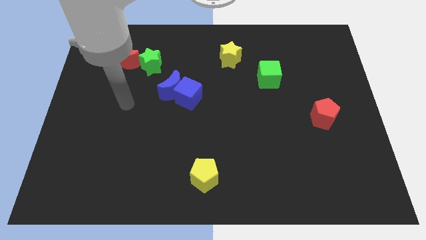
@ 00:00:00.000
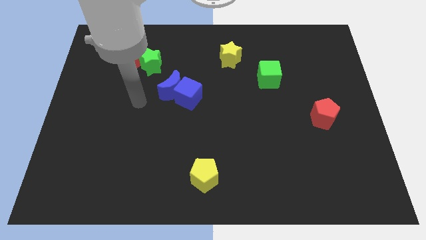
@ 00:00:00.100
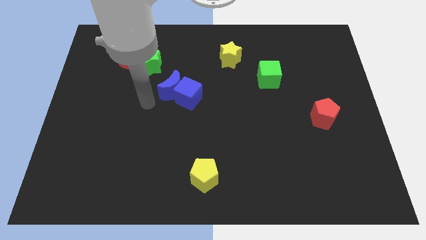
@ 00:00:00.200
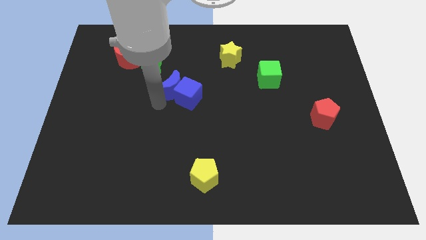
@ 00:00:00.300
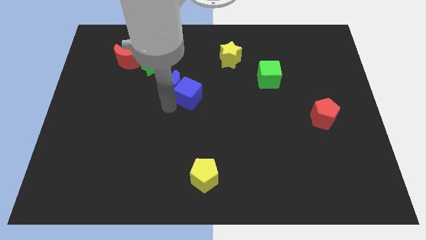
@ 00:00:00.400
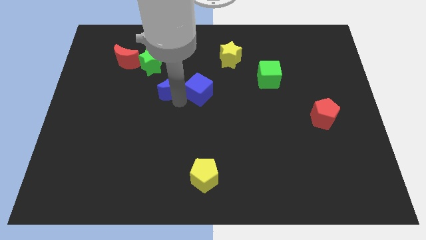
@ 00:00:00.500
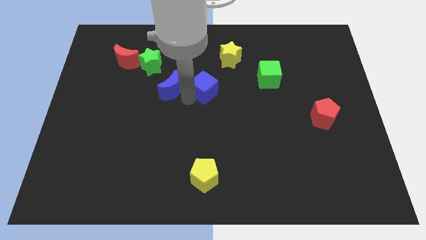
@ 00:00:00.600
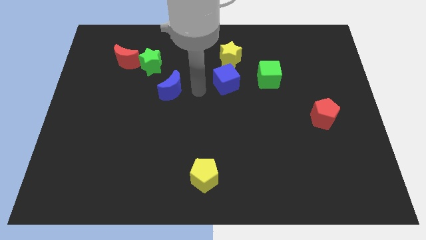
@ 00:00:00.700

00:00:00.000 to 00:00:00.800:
move the blue moon away from the blue cube

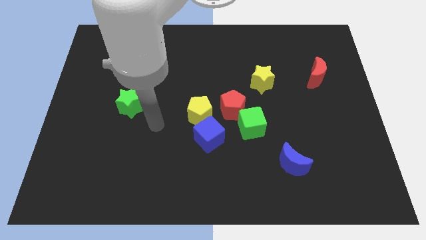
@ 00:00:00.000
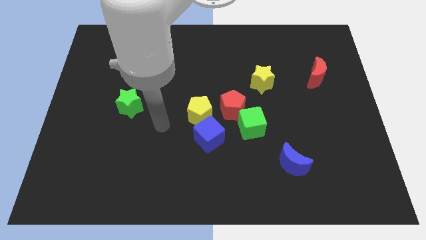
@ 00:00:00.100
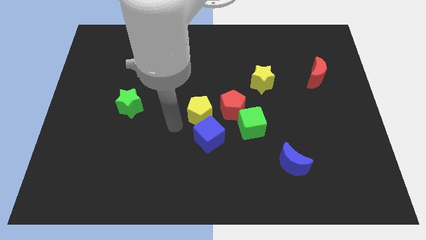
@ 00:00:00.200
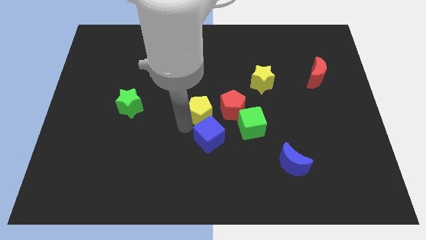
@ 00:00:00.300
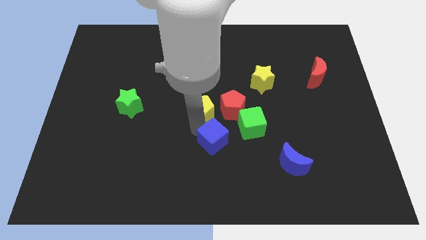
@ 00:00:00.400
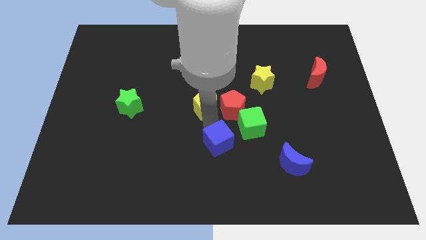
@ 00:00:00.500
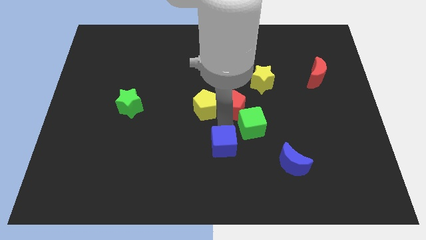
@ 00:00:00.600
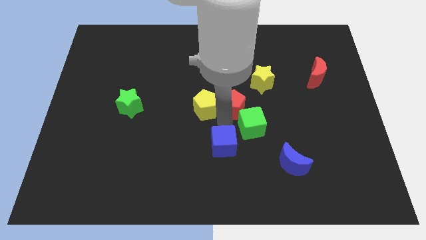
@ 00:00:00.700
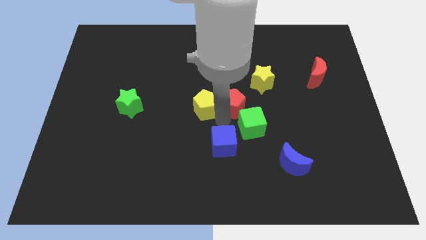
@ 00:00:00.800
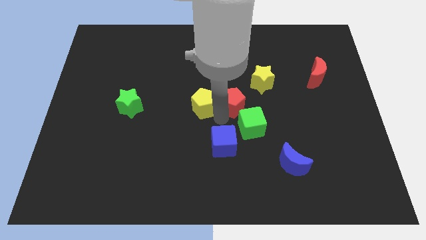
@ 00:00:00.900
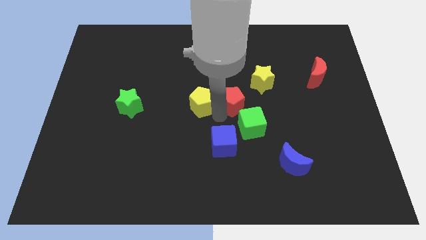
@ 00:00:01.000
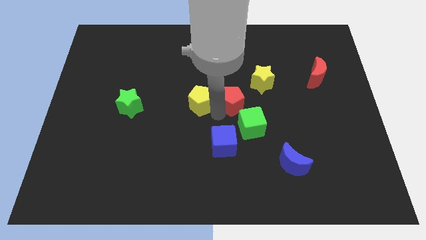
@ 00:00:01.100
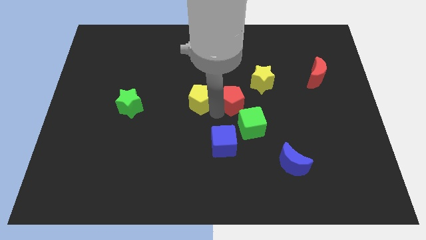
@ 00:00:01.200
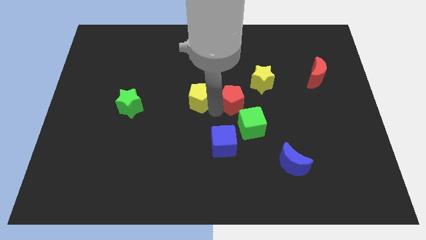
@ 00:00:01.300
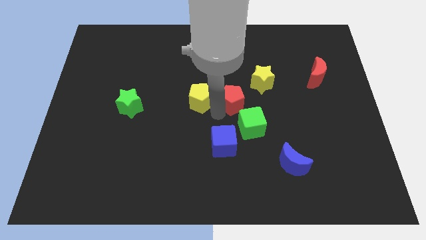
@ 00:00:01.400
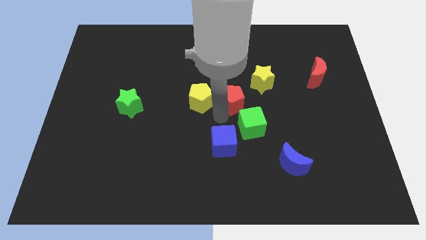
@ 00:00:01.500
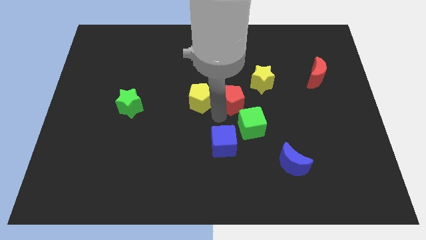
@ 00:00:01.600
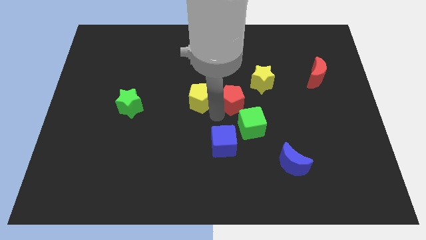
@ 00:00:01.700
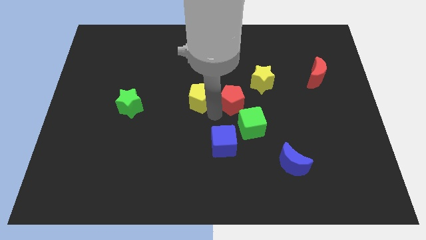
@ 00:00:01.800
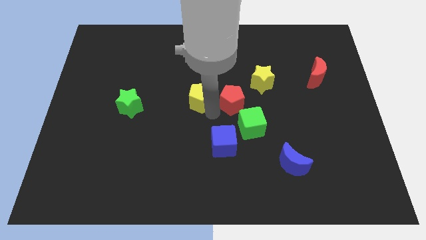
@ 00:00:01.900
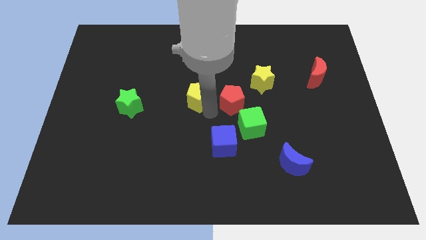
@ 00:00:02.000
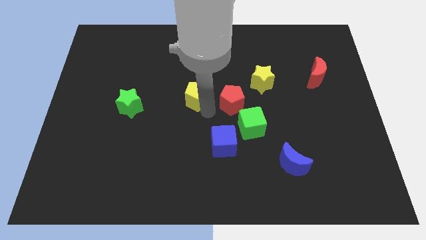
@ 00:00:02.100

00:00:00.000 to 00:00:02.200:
move the yellow pentagon away from the blue cube and red pentagon

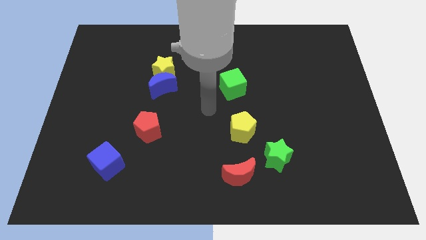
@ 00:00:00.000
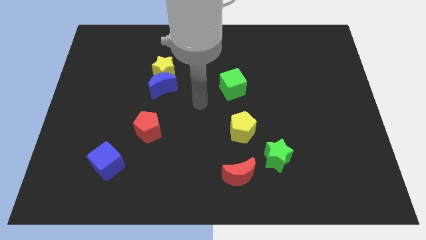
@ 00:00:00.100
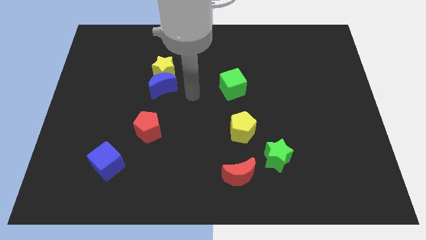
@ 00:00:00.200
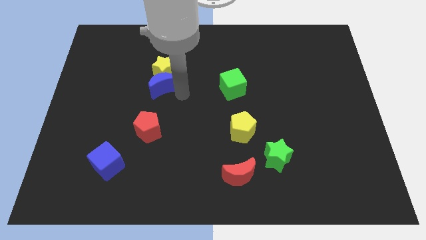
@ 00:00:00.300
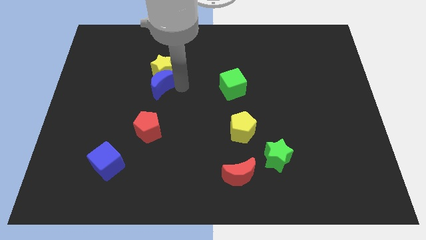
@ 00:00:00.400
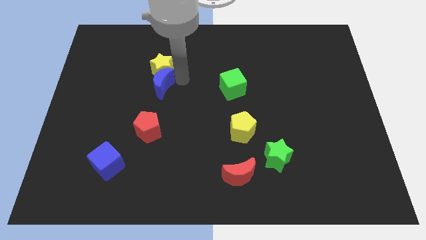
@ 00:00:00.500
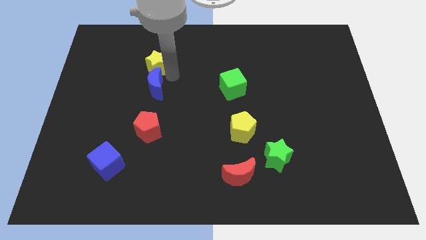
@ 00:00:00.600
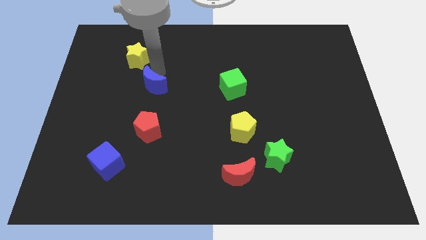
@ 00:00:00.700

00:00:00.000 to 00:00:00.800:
move the blue moon away from the yellow star

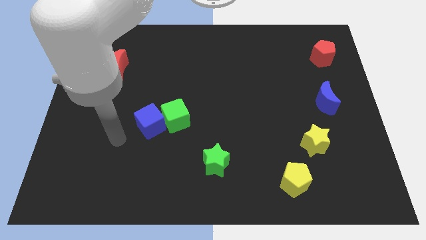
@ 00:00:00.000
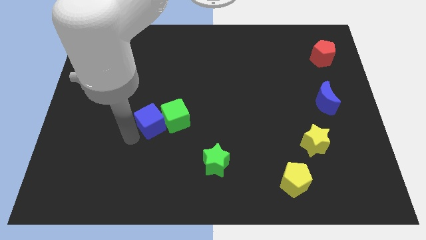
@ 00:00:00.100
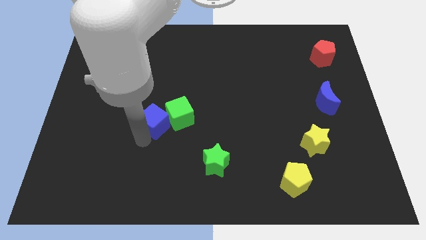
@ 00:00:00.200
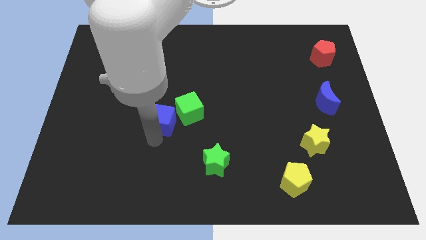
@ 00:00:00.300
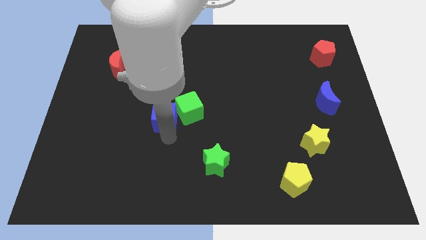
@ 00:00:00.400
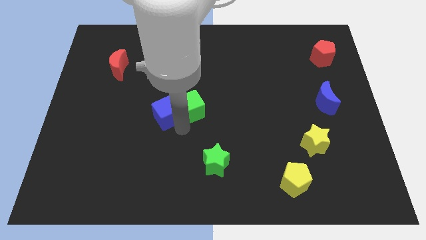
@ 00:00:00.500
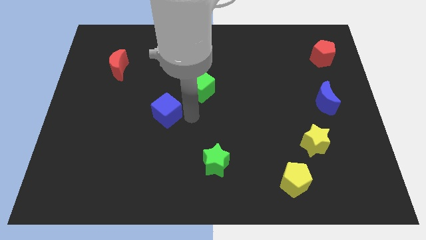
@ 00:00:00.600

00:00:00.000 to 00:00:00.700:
move the blue cube away from the green cube

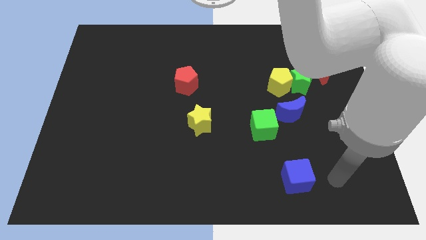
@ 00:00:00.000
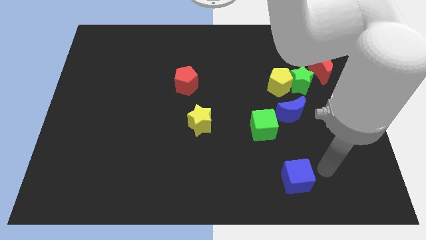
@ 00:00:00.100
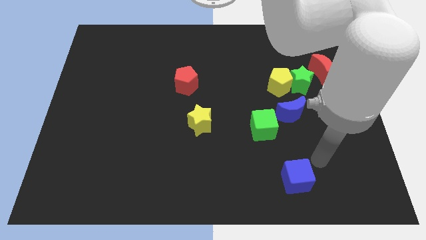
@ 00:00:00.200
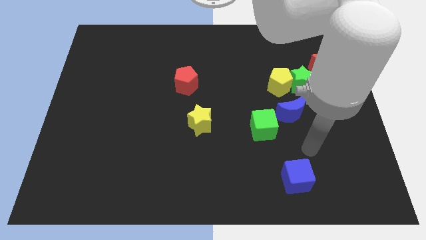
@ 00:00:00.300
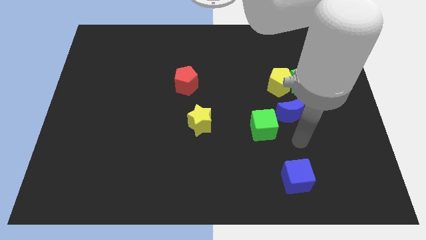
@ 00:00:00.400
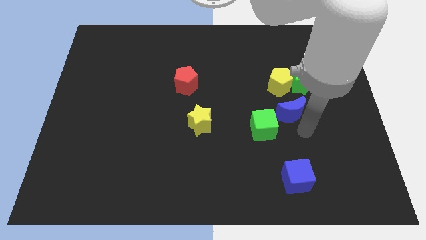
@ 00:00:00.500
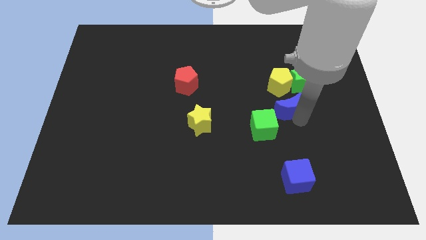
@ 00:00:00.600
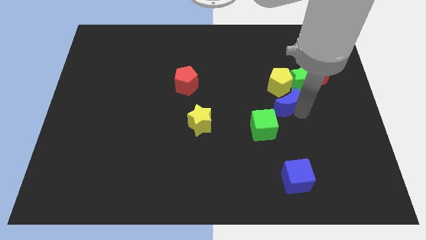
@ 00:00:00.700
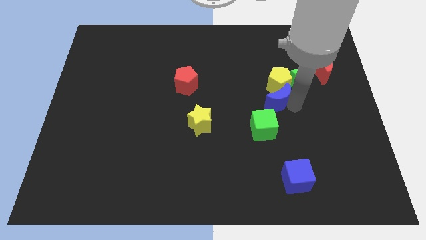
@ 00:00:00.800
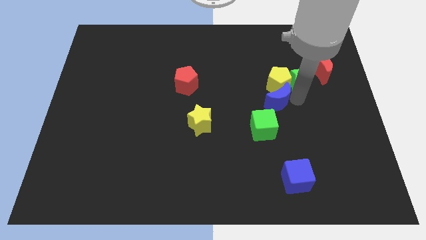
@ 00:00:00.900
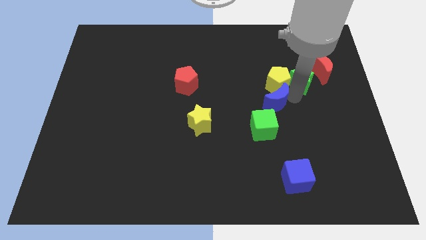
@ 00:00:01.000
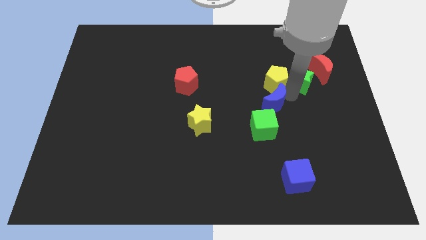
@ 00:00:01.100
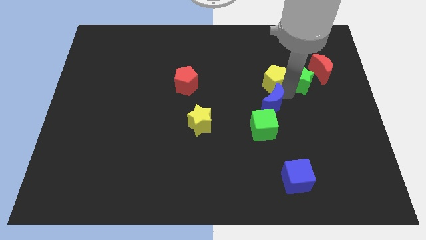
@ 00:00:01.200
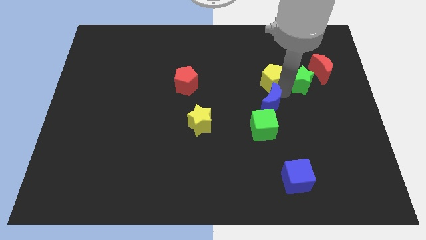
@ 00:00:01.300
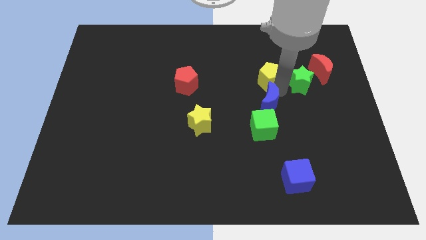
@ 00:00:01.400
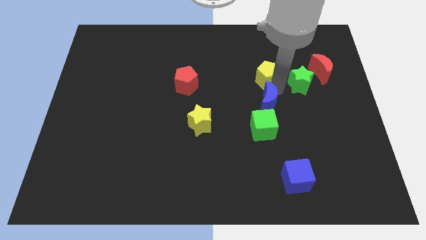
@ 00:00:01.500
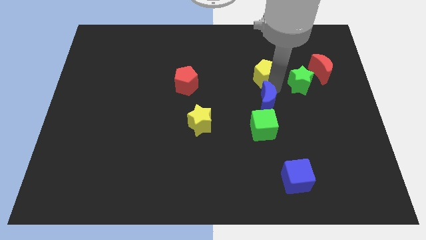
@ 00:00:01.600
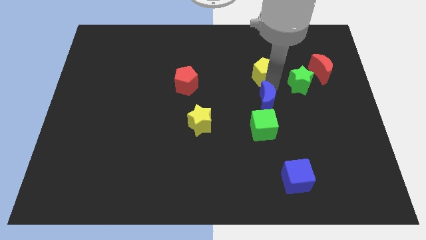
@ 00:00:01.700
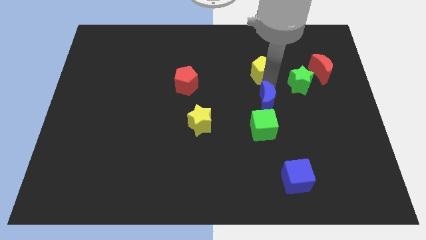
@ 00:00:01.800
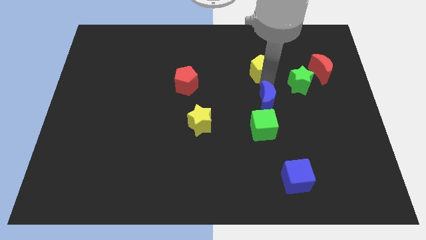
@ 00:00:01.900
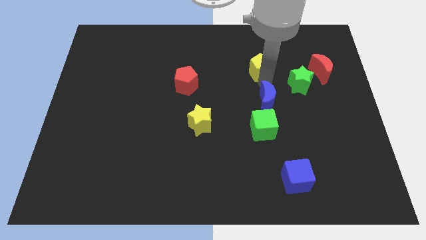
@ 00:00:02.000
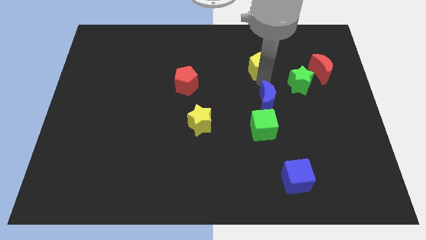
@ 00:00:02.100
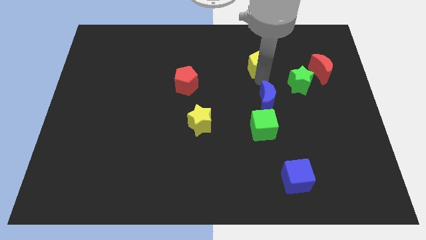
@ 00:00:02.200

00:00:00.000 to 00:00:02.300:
pull the yellow pentagon apart from the green star and blue moon

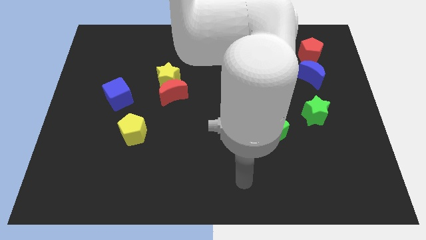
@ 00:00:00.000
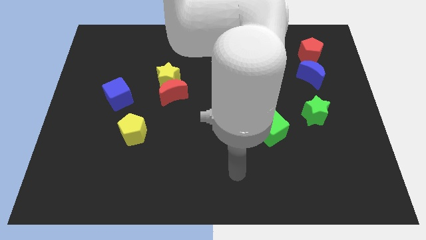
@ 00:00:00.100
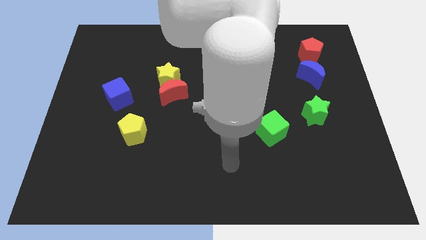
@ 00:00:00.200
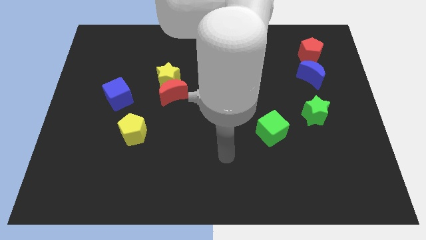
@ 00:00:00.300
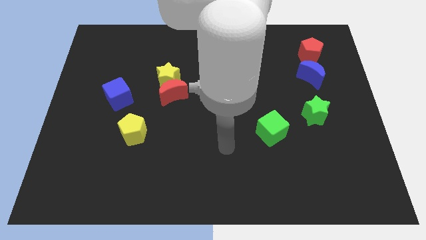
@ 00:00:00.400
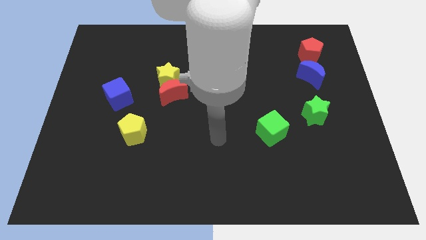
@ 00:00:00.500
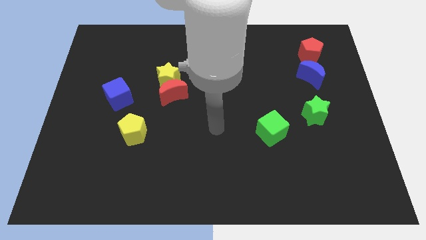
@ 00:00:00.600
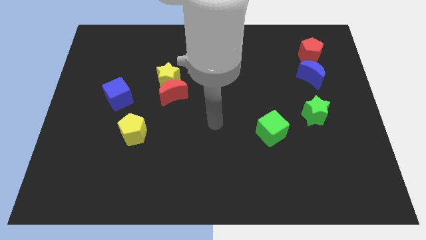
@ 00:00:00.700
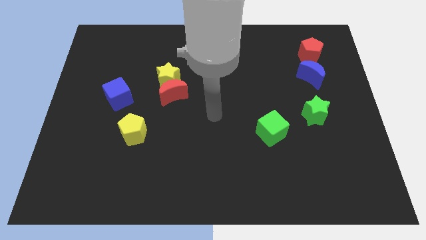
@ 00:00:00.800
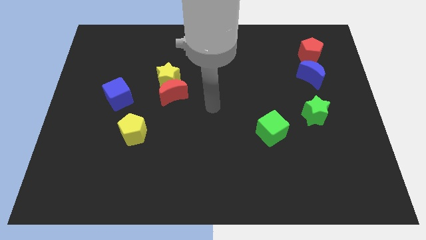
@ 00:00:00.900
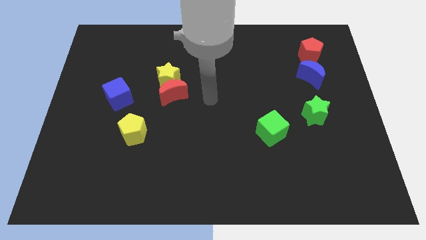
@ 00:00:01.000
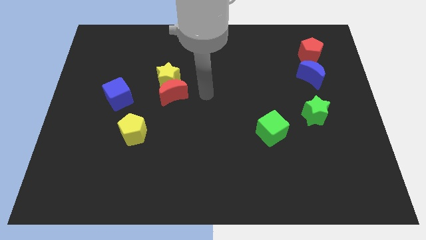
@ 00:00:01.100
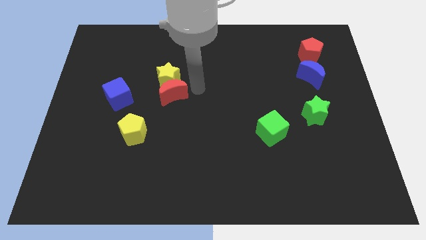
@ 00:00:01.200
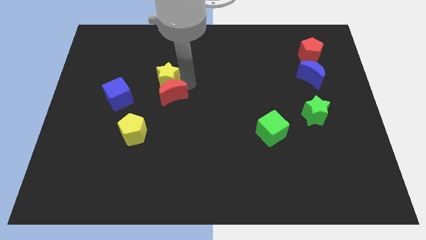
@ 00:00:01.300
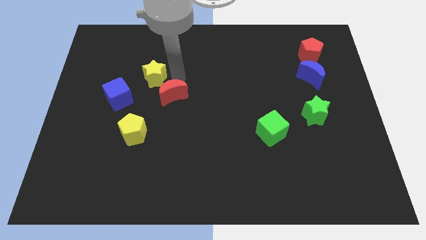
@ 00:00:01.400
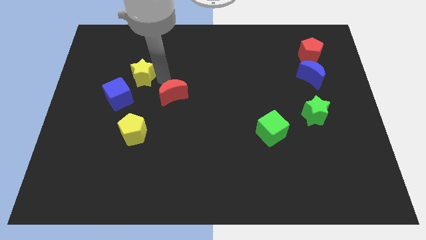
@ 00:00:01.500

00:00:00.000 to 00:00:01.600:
separate the red moon from the yellow star

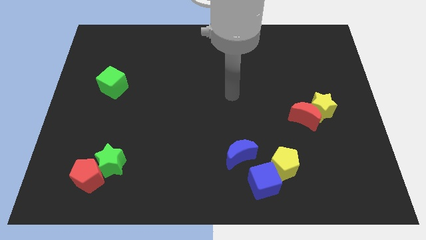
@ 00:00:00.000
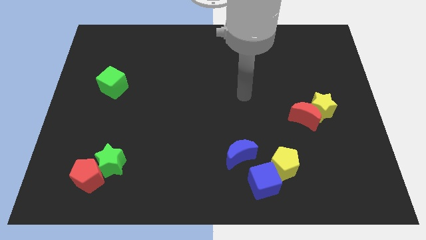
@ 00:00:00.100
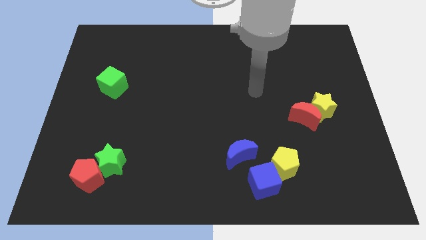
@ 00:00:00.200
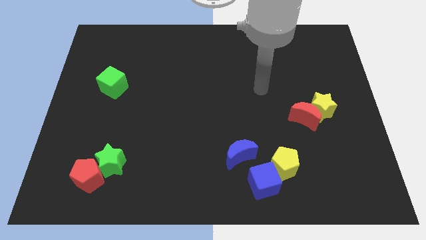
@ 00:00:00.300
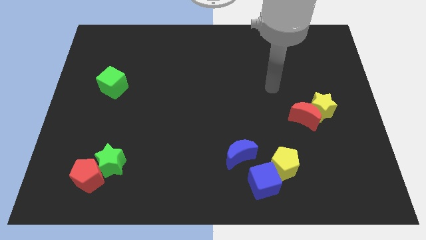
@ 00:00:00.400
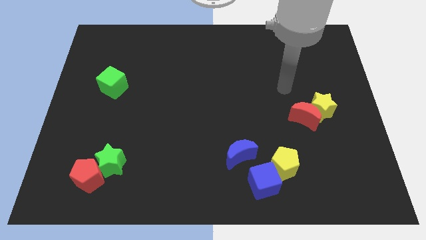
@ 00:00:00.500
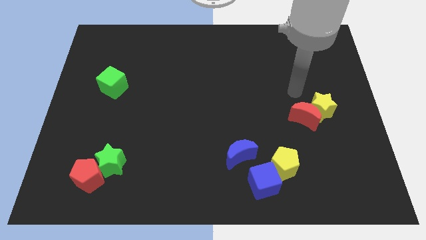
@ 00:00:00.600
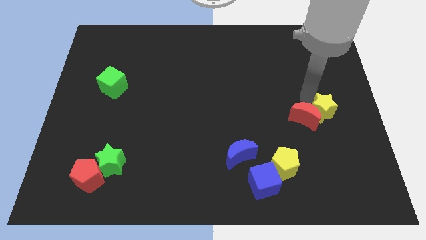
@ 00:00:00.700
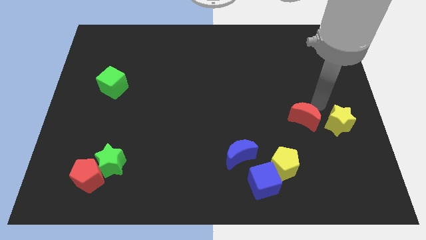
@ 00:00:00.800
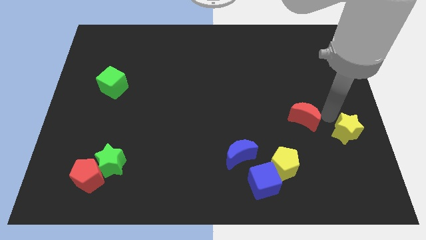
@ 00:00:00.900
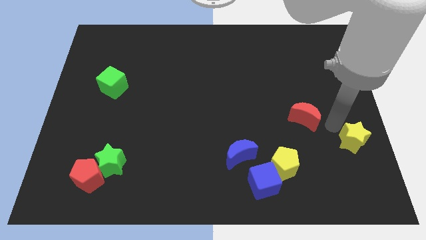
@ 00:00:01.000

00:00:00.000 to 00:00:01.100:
move the red moon away from the yellow star
